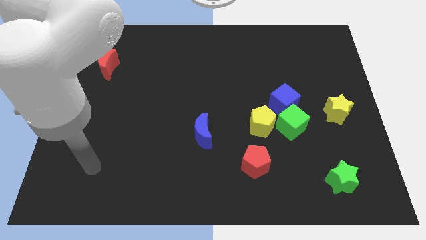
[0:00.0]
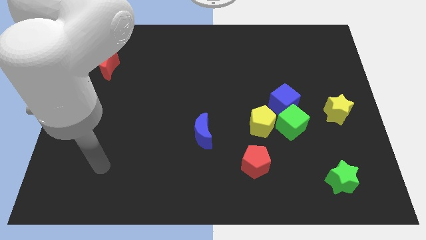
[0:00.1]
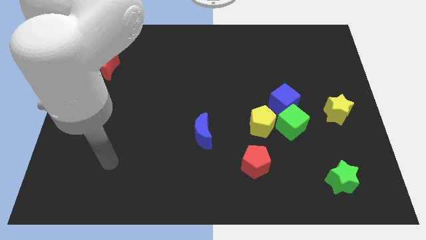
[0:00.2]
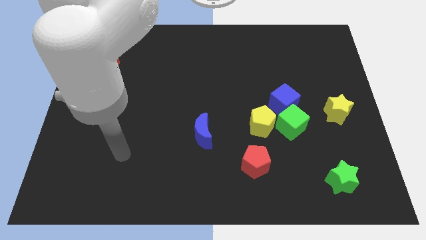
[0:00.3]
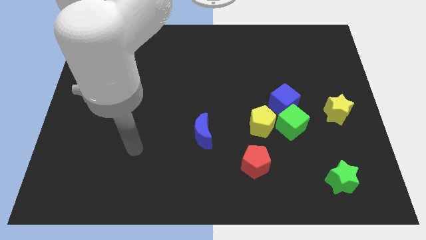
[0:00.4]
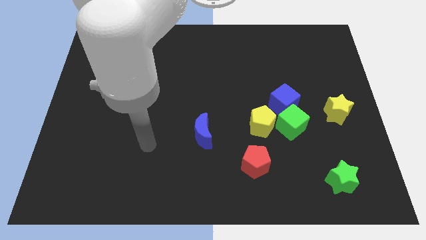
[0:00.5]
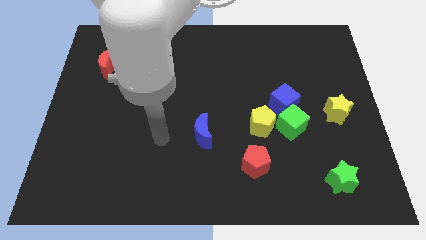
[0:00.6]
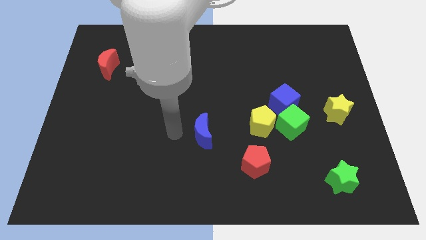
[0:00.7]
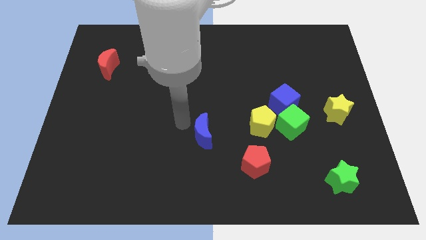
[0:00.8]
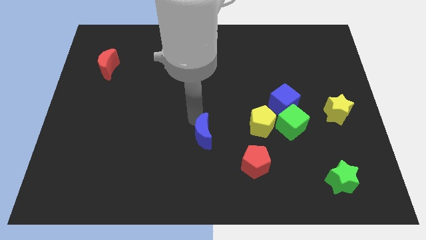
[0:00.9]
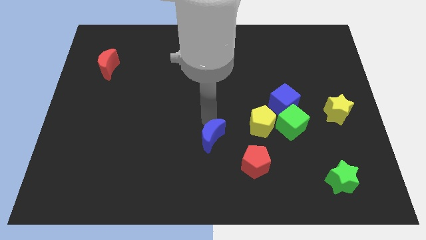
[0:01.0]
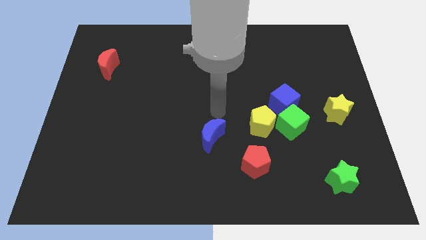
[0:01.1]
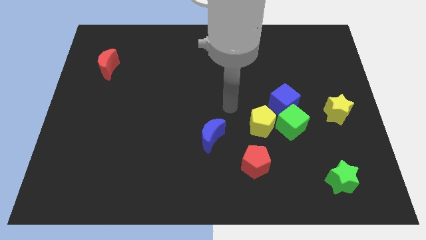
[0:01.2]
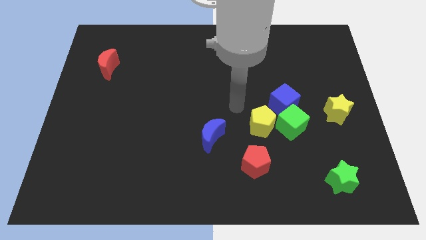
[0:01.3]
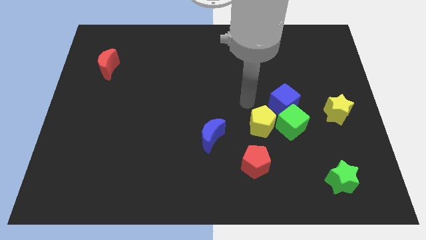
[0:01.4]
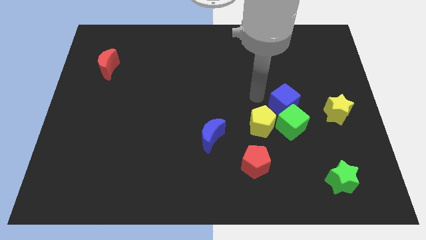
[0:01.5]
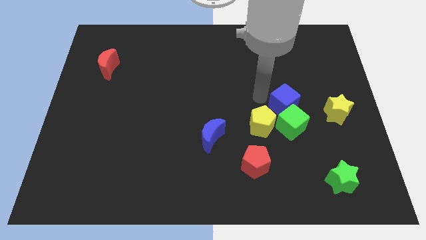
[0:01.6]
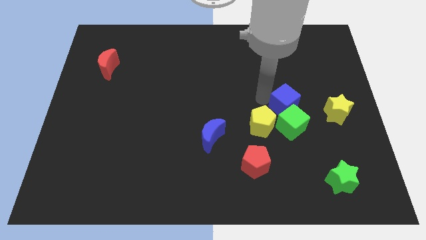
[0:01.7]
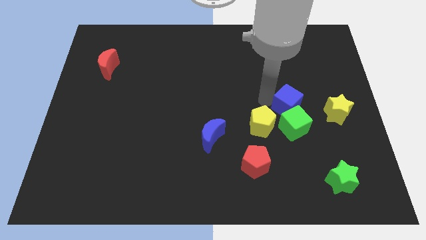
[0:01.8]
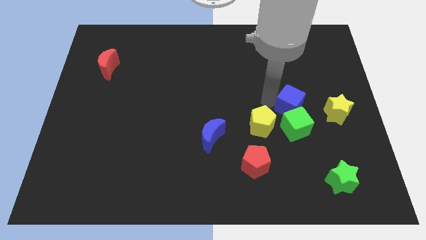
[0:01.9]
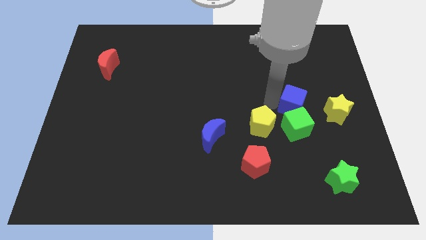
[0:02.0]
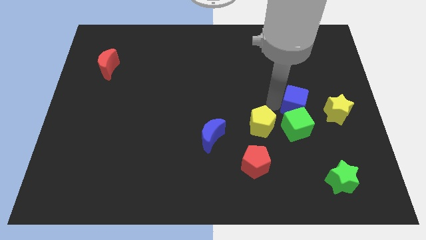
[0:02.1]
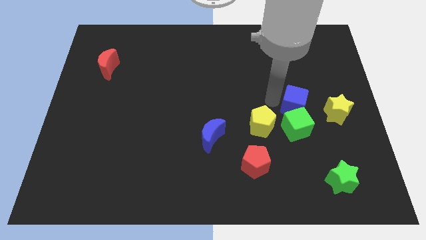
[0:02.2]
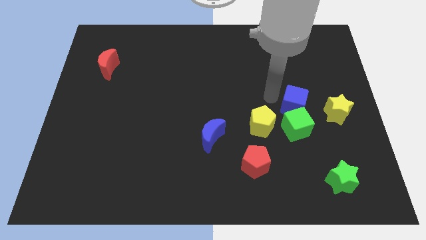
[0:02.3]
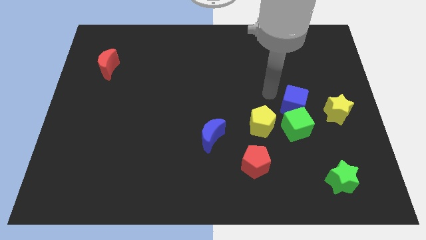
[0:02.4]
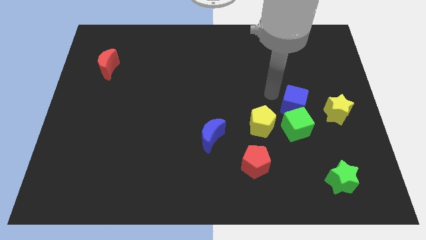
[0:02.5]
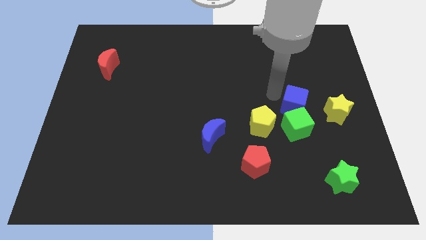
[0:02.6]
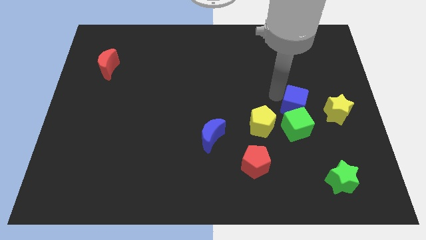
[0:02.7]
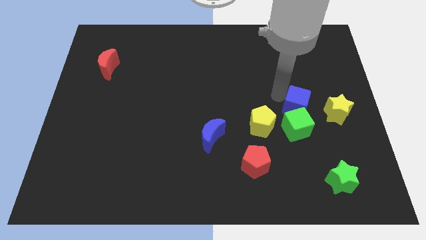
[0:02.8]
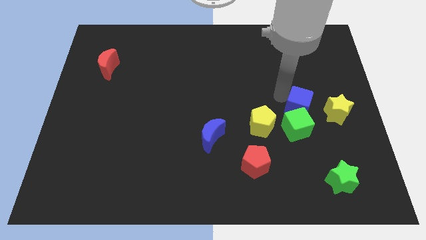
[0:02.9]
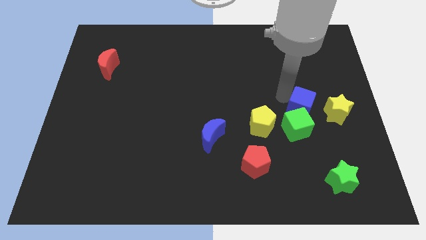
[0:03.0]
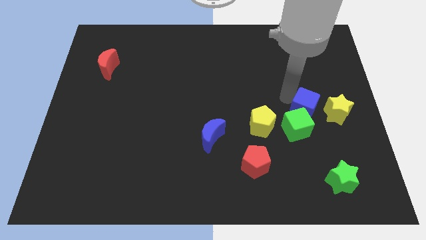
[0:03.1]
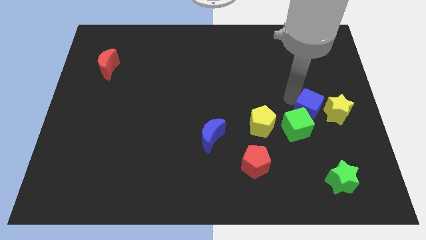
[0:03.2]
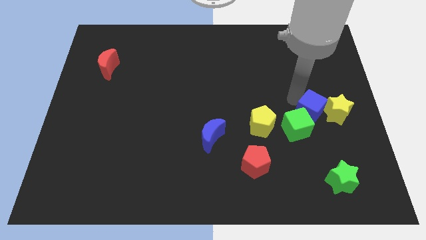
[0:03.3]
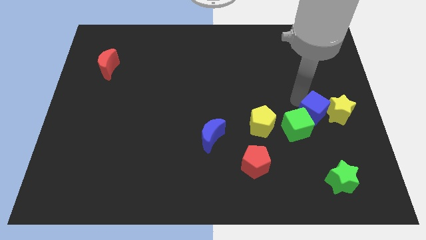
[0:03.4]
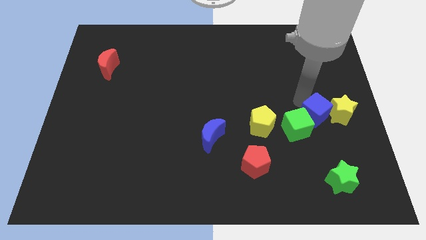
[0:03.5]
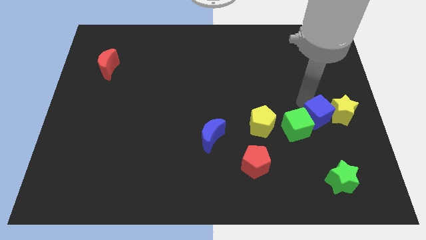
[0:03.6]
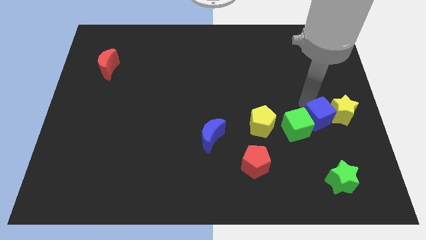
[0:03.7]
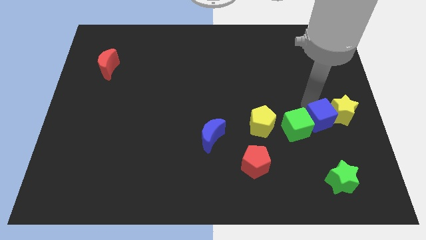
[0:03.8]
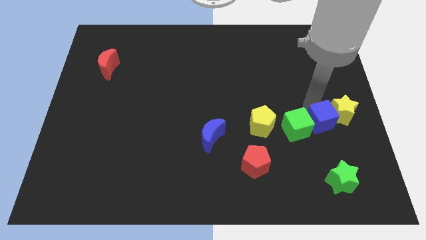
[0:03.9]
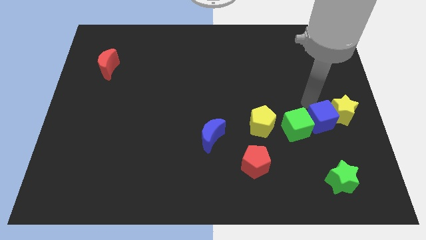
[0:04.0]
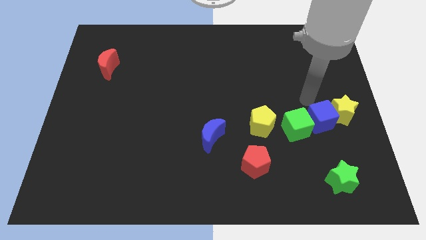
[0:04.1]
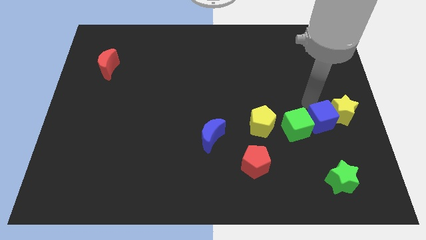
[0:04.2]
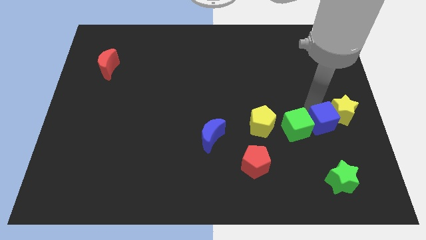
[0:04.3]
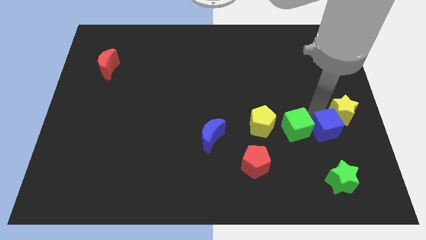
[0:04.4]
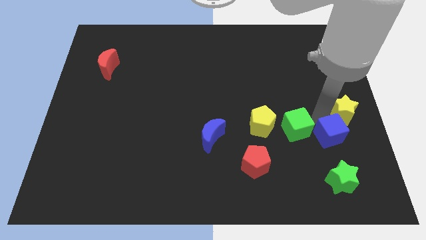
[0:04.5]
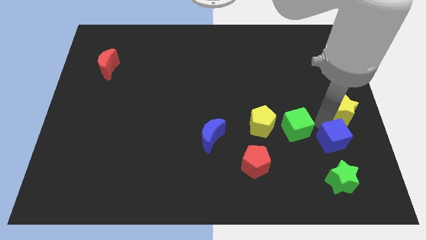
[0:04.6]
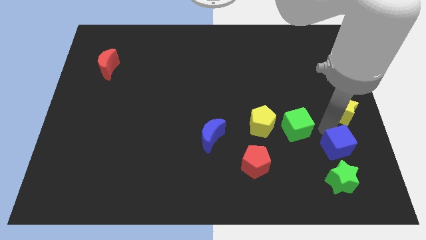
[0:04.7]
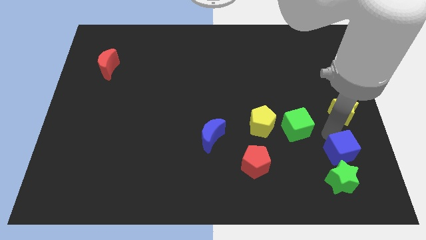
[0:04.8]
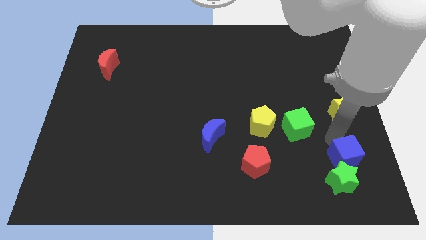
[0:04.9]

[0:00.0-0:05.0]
move the blue cube next to the green star

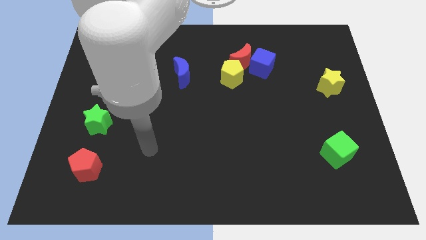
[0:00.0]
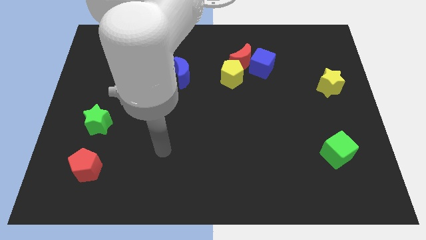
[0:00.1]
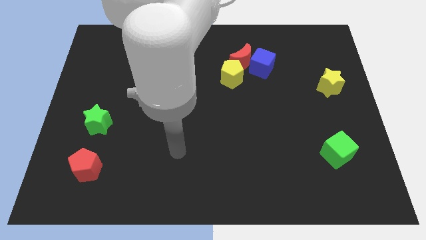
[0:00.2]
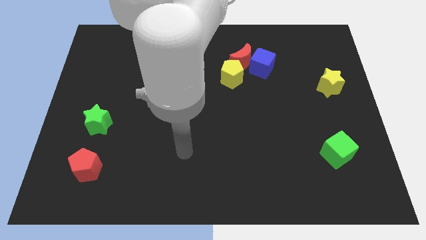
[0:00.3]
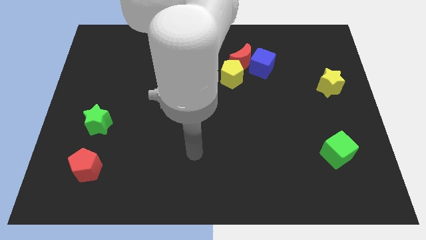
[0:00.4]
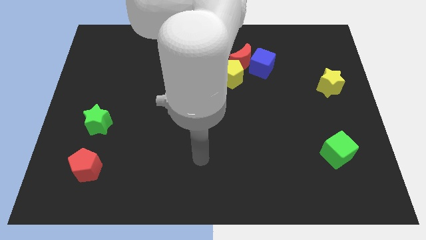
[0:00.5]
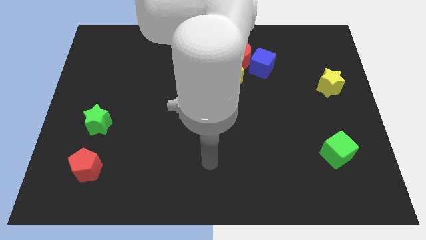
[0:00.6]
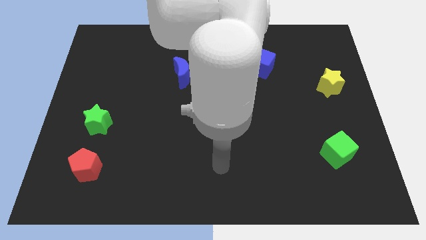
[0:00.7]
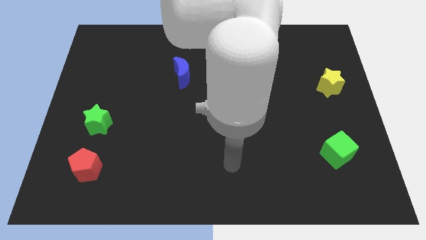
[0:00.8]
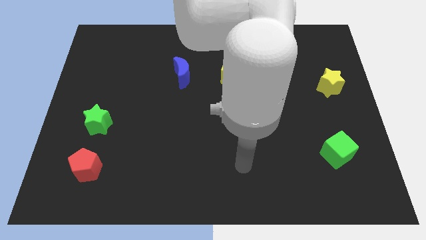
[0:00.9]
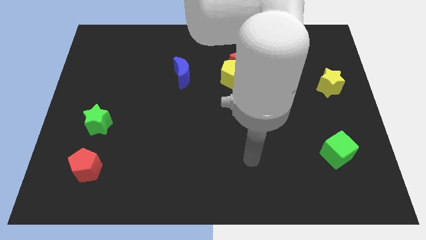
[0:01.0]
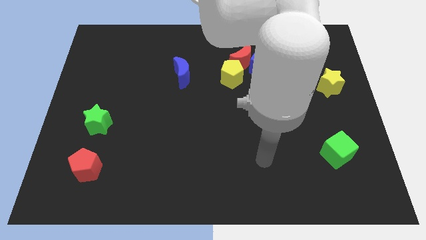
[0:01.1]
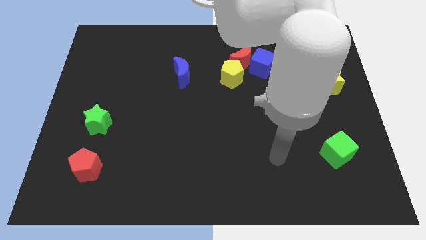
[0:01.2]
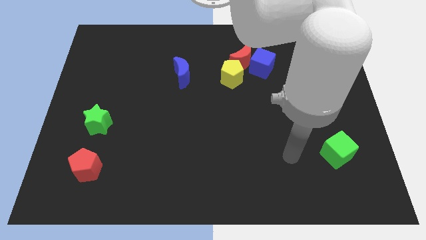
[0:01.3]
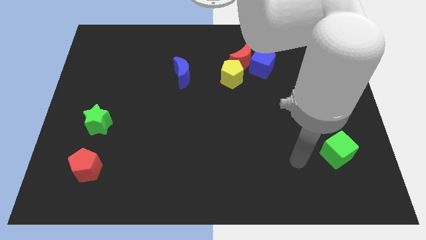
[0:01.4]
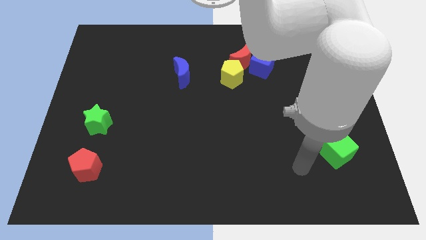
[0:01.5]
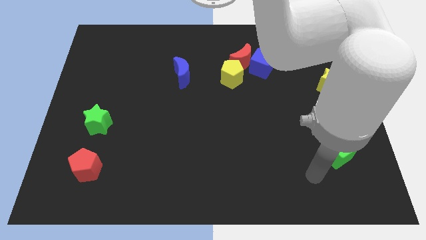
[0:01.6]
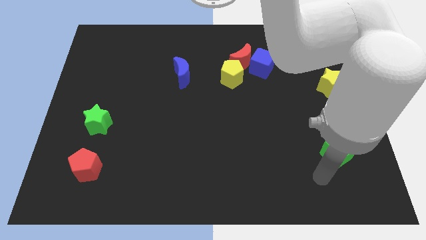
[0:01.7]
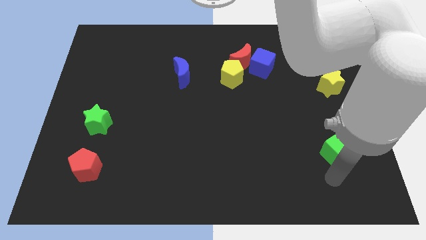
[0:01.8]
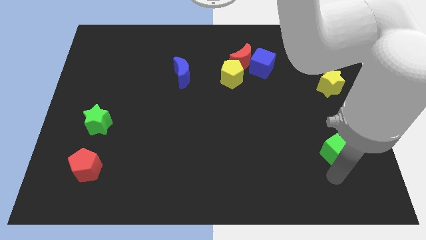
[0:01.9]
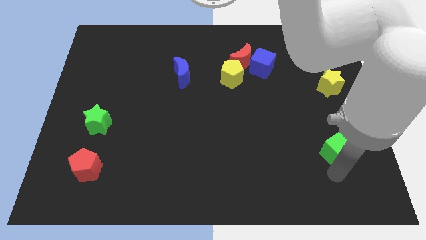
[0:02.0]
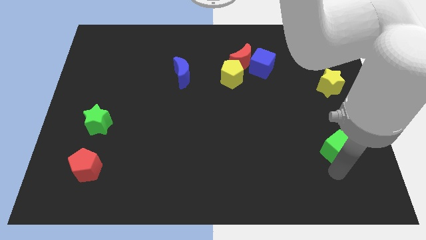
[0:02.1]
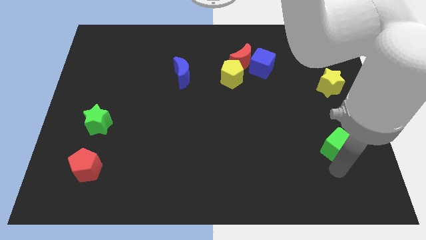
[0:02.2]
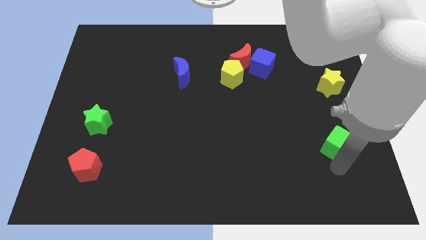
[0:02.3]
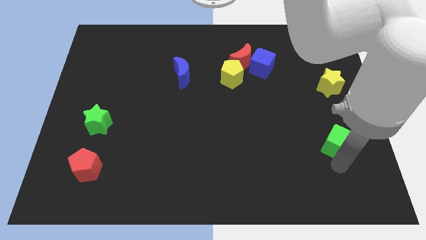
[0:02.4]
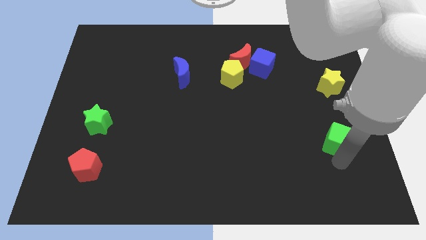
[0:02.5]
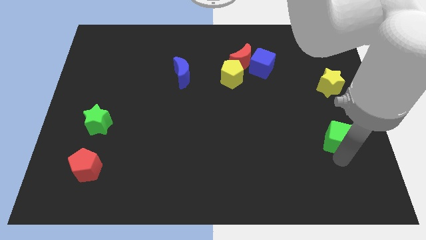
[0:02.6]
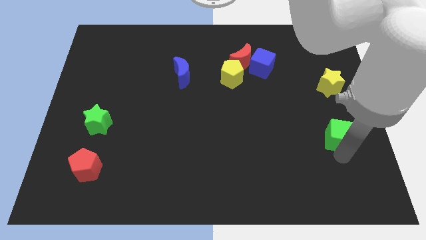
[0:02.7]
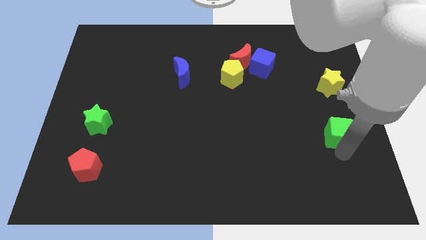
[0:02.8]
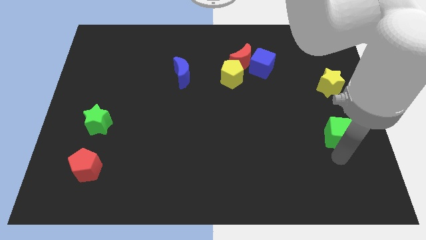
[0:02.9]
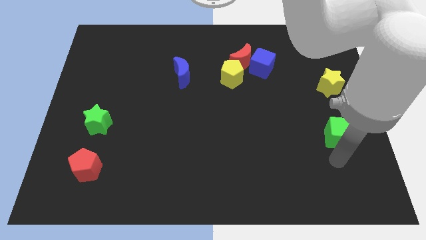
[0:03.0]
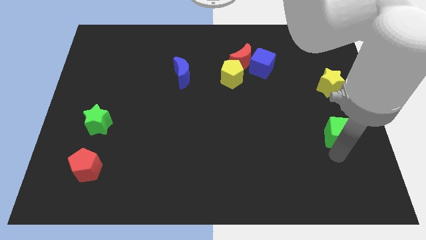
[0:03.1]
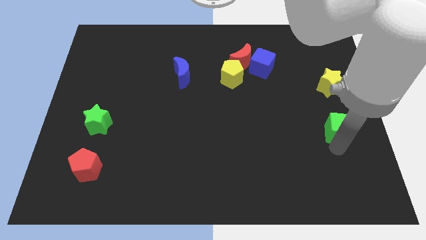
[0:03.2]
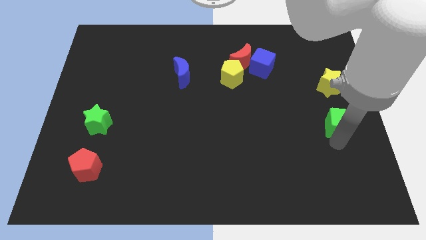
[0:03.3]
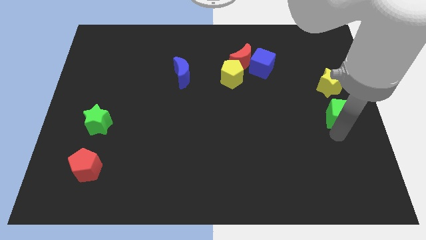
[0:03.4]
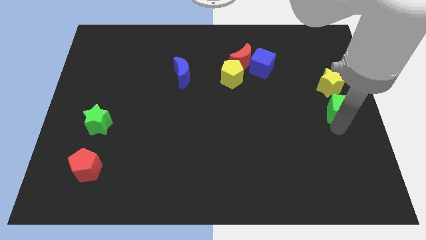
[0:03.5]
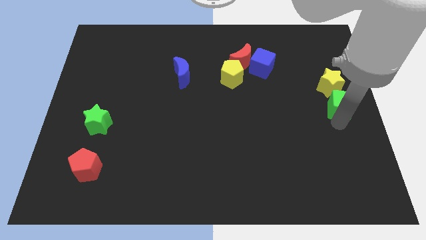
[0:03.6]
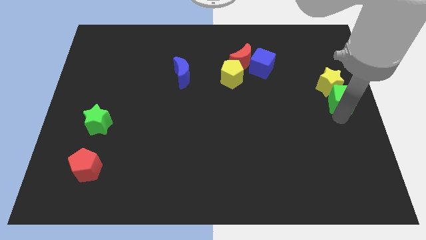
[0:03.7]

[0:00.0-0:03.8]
move the green cube towards the yellow star
